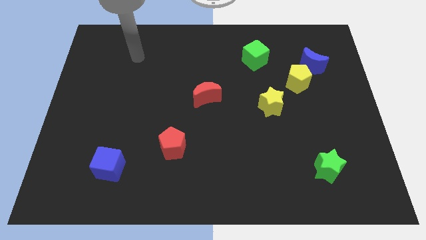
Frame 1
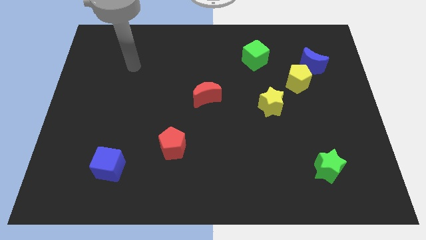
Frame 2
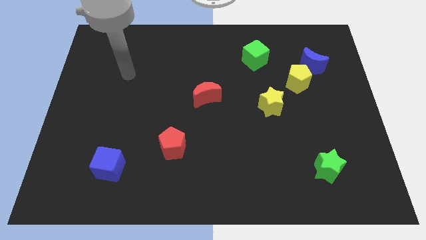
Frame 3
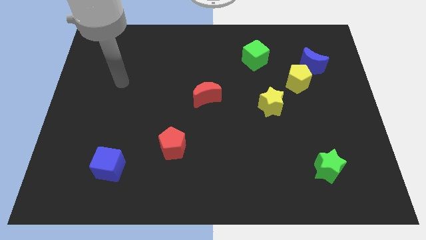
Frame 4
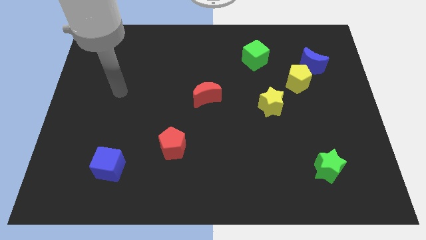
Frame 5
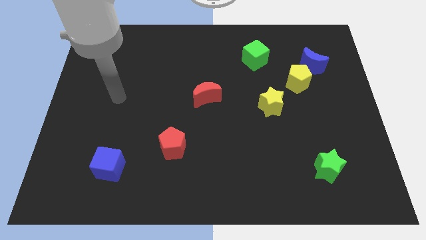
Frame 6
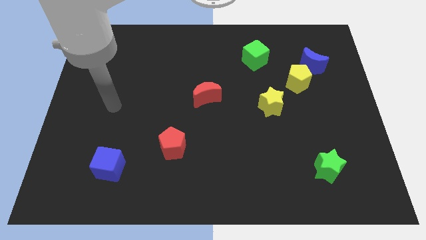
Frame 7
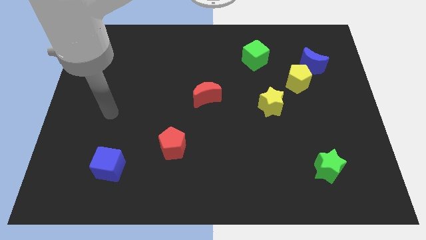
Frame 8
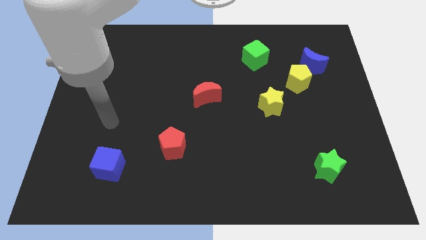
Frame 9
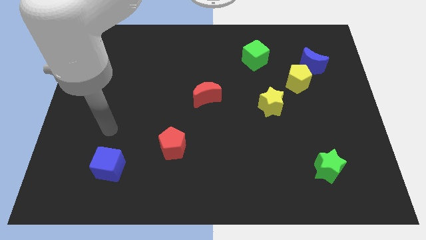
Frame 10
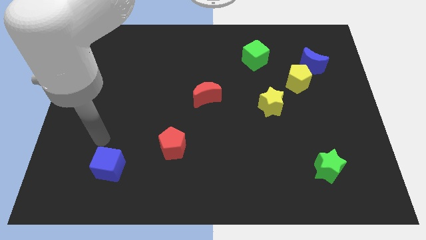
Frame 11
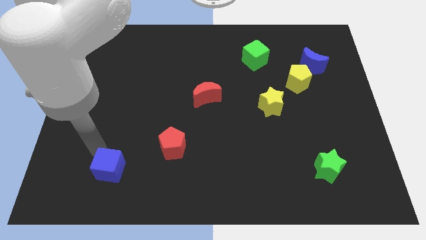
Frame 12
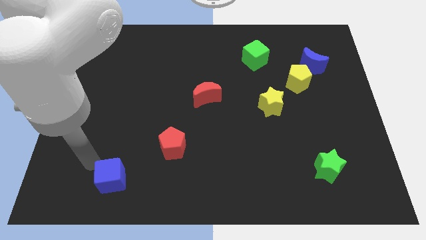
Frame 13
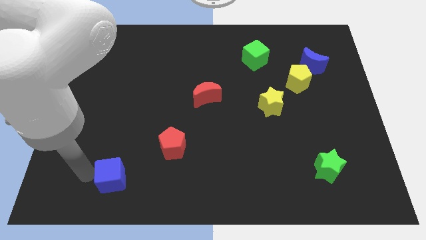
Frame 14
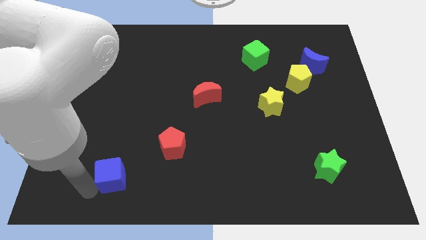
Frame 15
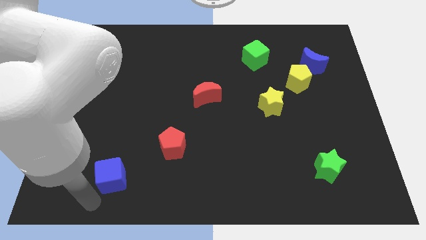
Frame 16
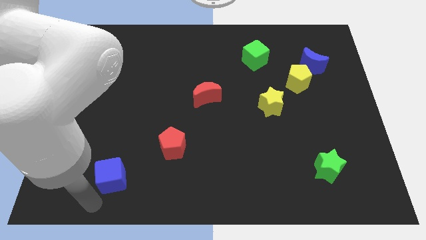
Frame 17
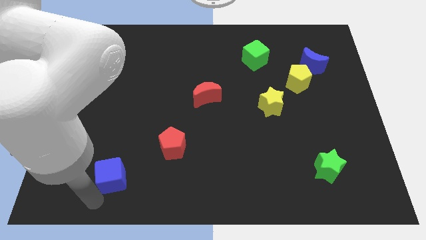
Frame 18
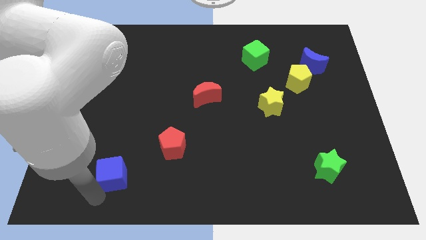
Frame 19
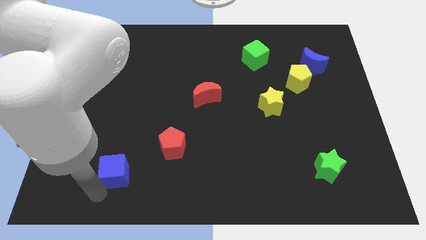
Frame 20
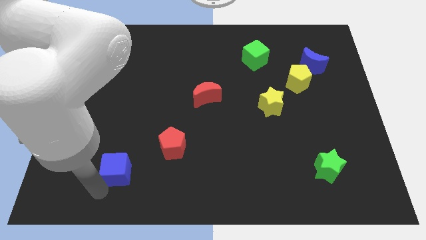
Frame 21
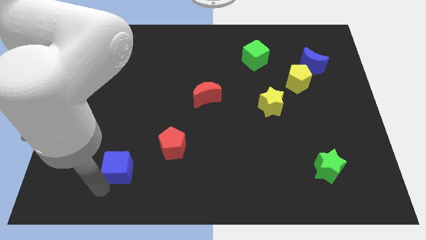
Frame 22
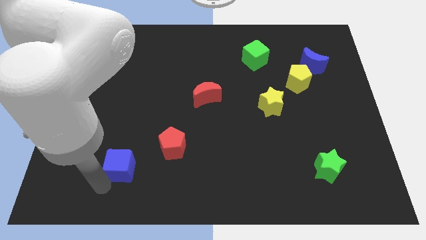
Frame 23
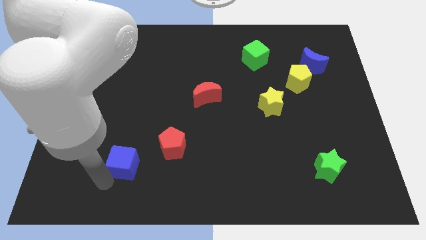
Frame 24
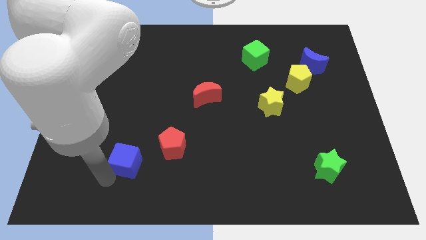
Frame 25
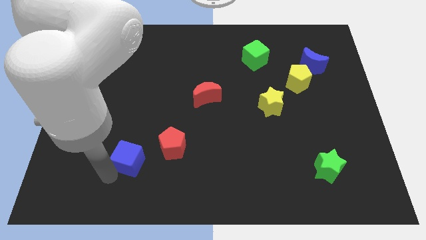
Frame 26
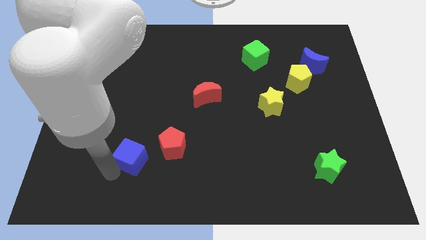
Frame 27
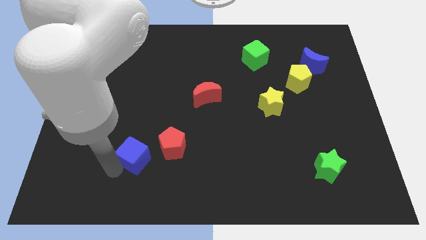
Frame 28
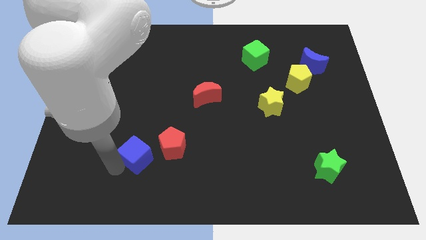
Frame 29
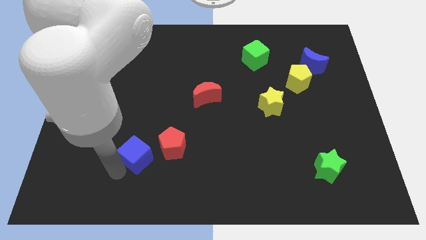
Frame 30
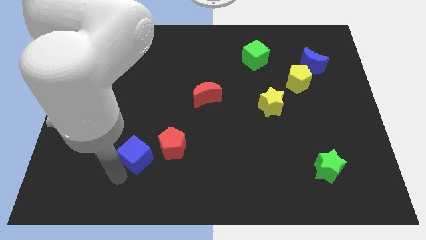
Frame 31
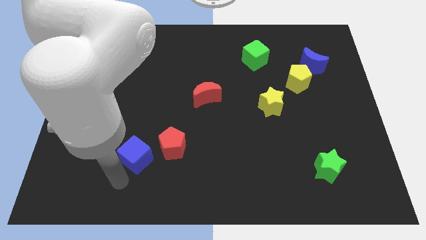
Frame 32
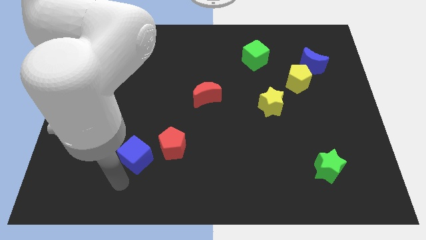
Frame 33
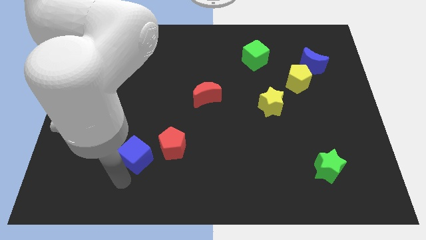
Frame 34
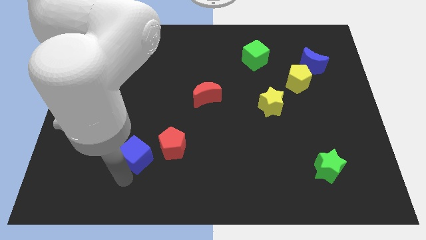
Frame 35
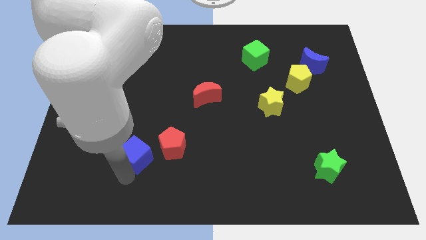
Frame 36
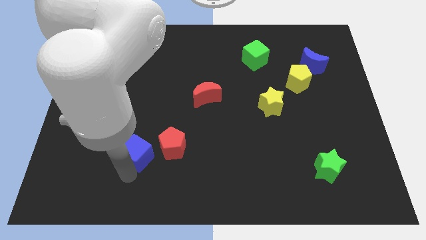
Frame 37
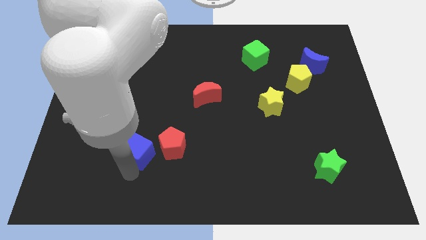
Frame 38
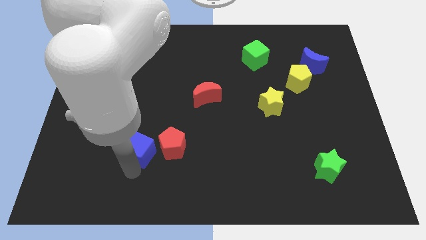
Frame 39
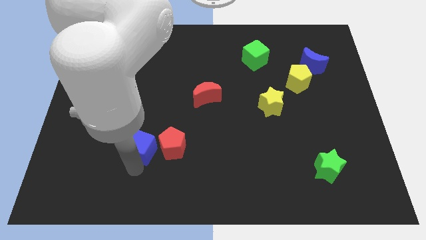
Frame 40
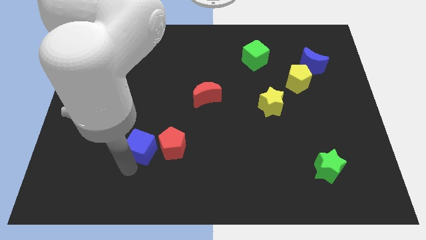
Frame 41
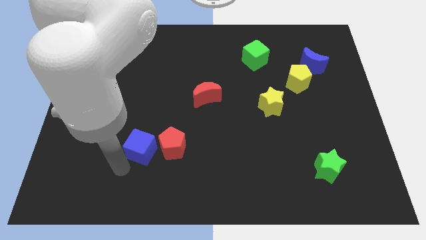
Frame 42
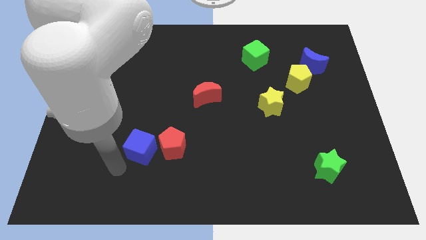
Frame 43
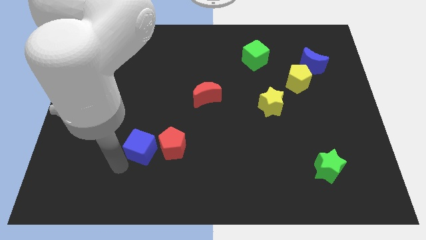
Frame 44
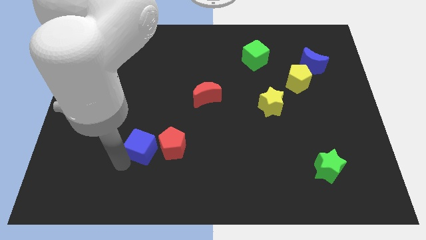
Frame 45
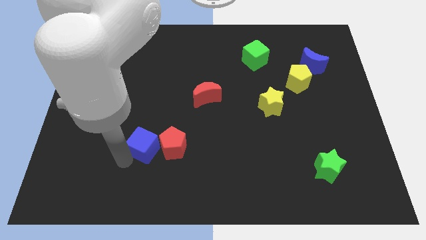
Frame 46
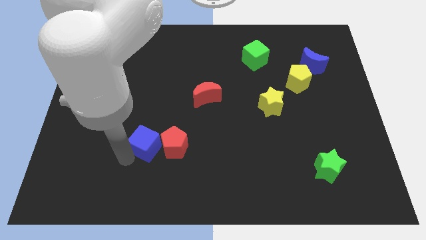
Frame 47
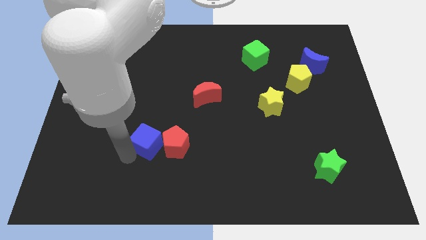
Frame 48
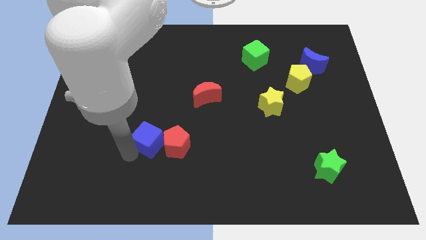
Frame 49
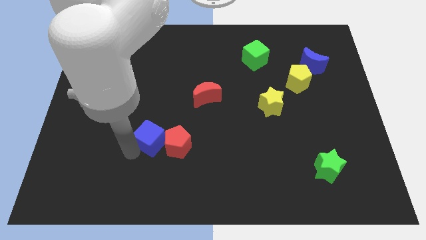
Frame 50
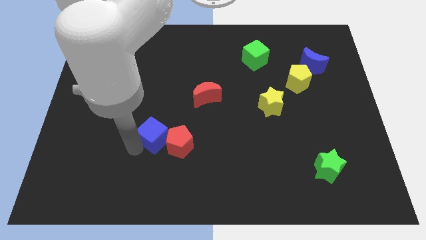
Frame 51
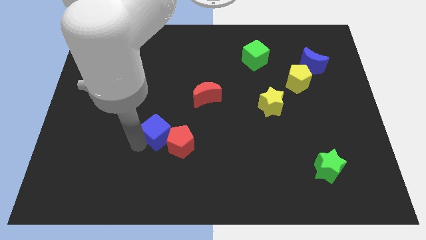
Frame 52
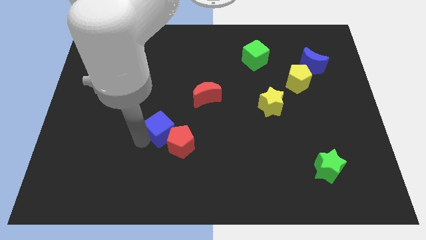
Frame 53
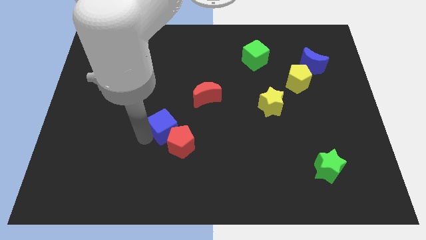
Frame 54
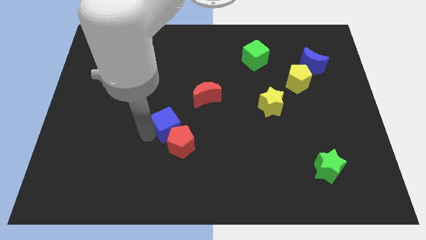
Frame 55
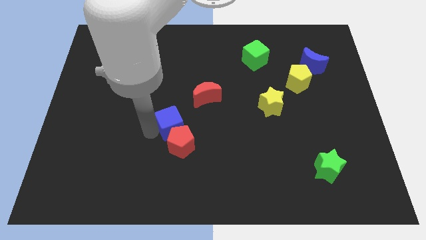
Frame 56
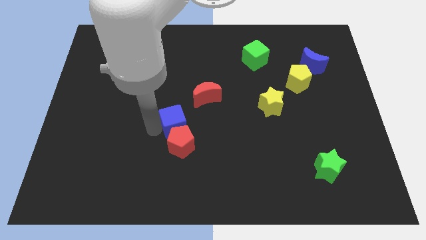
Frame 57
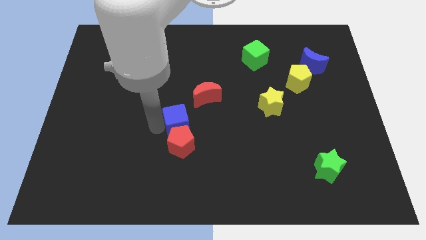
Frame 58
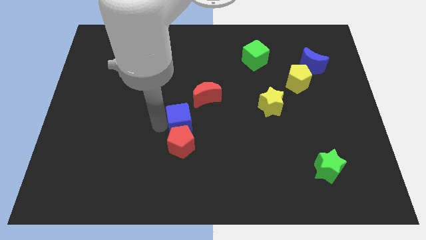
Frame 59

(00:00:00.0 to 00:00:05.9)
move the blue cube to the top right of the red pentagon

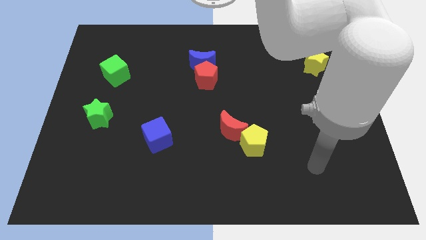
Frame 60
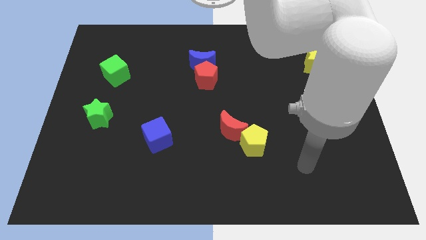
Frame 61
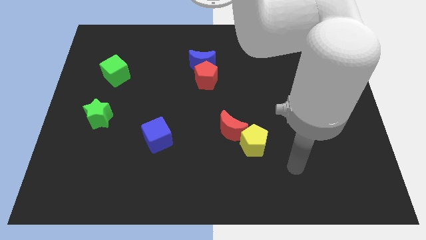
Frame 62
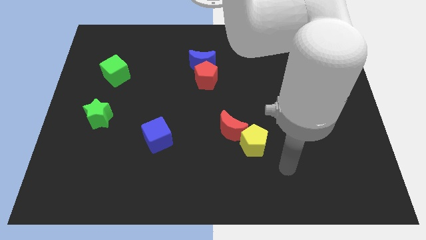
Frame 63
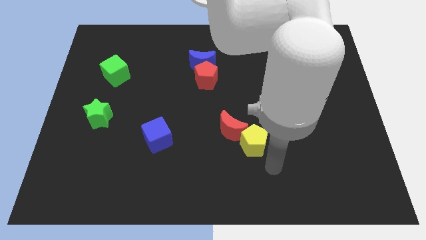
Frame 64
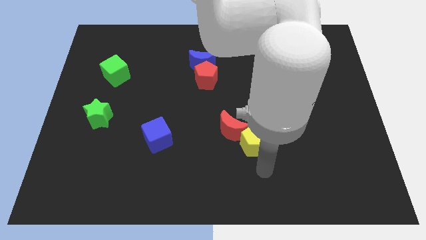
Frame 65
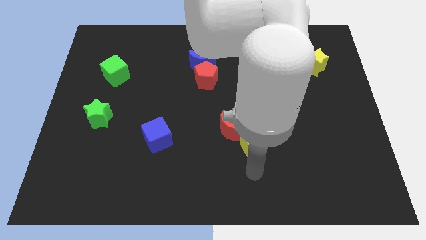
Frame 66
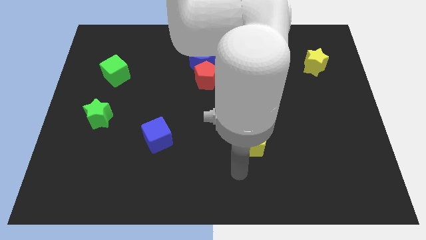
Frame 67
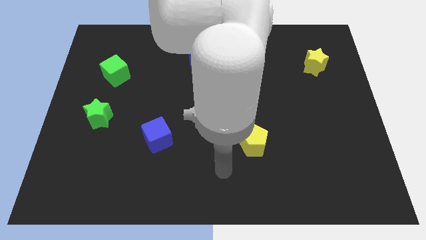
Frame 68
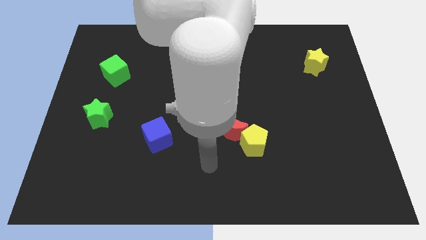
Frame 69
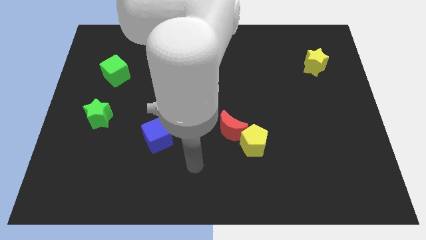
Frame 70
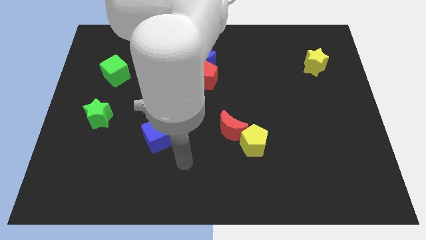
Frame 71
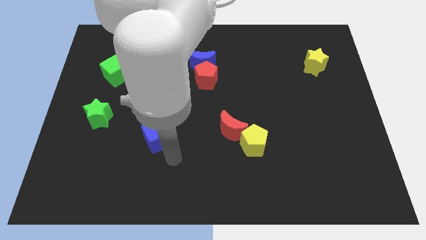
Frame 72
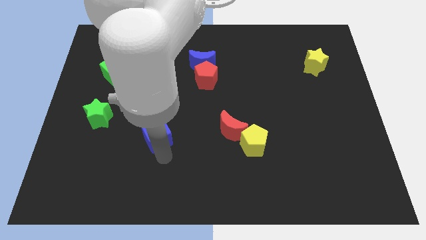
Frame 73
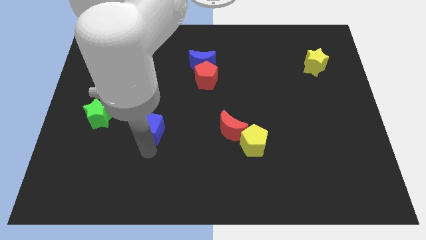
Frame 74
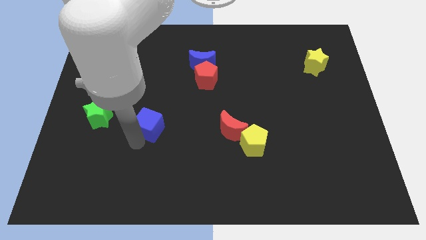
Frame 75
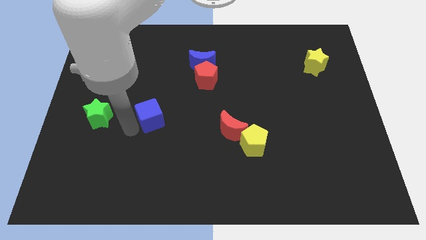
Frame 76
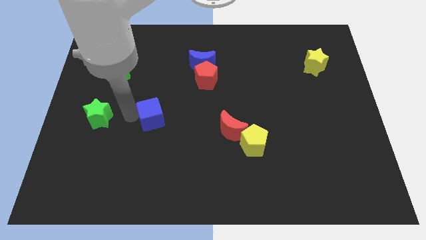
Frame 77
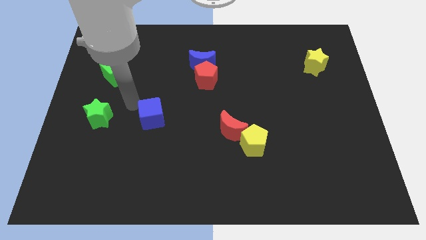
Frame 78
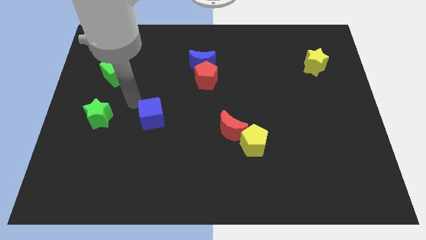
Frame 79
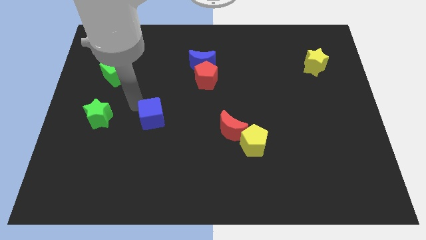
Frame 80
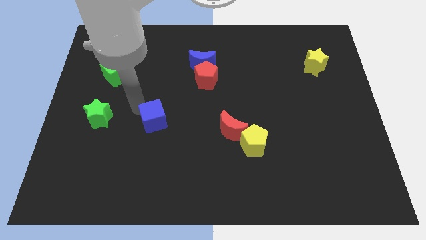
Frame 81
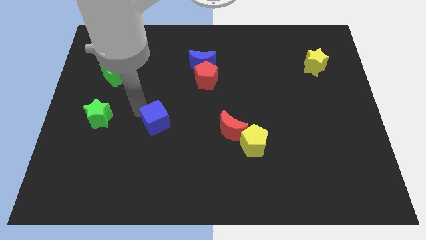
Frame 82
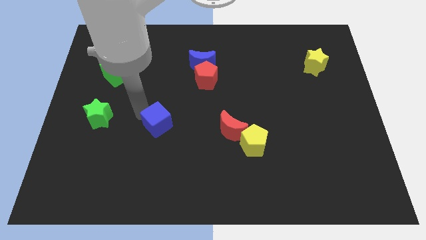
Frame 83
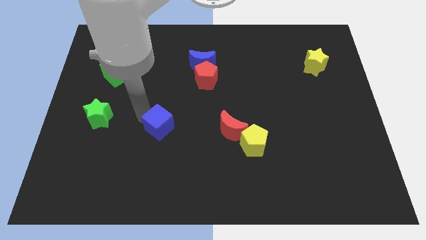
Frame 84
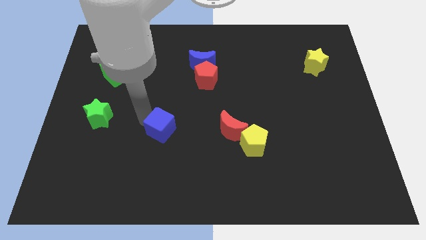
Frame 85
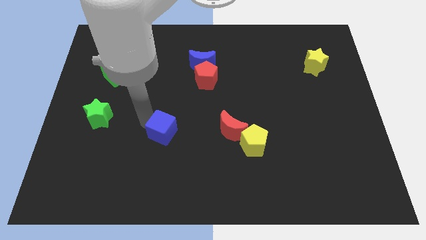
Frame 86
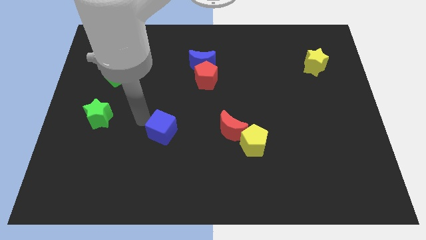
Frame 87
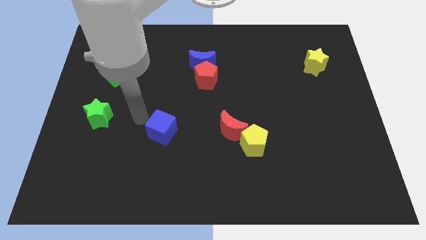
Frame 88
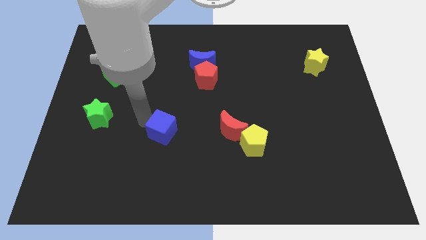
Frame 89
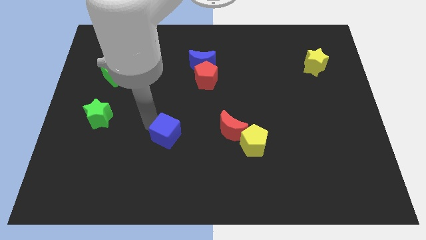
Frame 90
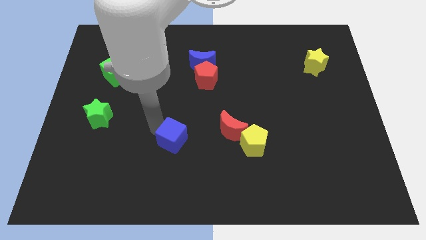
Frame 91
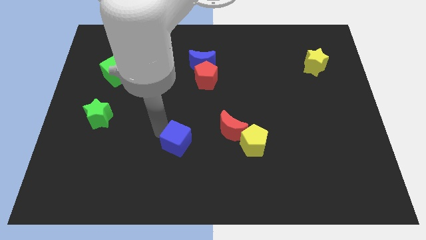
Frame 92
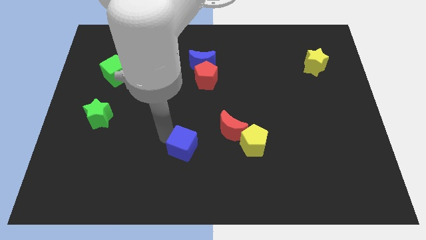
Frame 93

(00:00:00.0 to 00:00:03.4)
slide the blue cube to the left of the yellow pentagon
